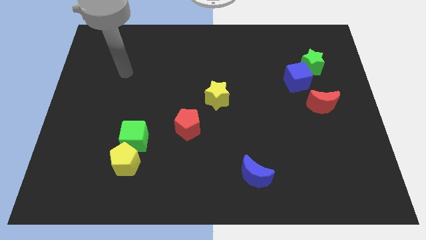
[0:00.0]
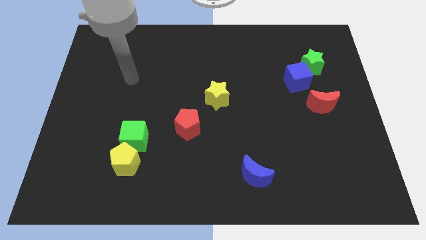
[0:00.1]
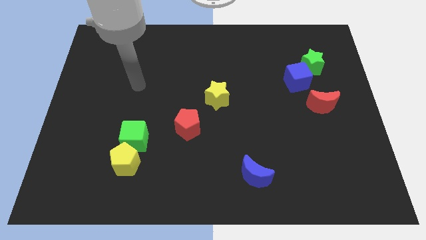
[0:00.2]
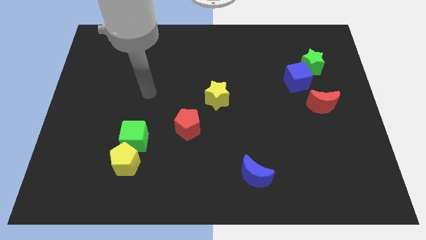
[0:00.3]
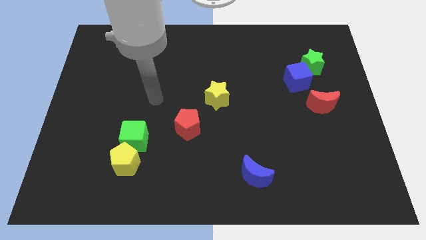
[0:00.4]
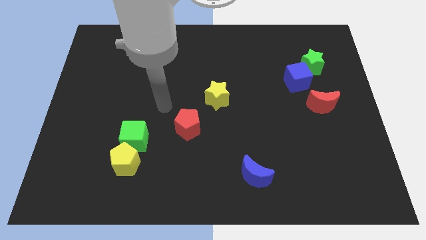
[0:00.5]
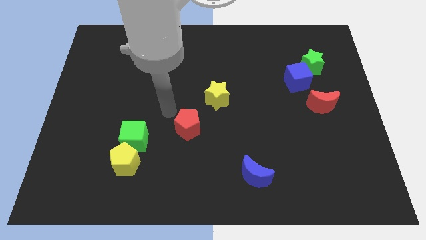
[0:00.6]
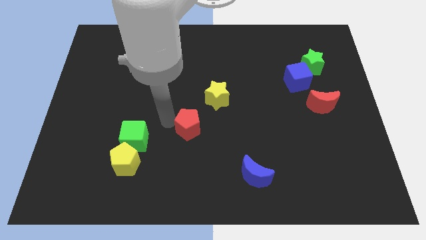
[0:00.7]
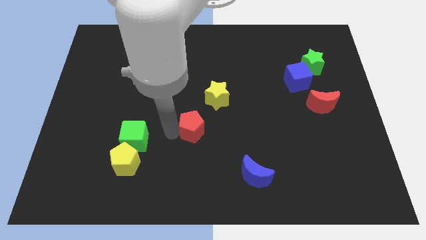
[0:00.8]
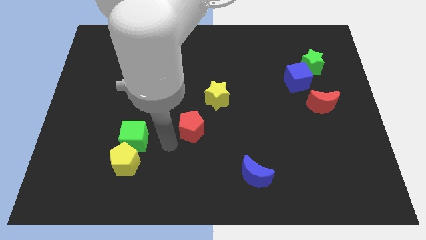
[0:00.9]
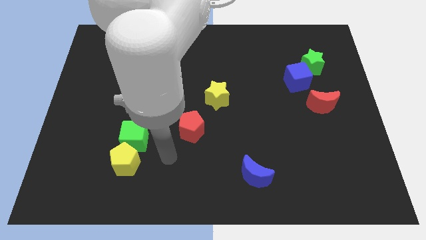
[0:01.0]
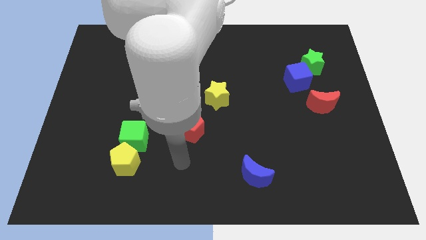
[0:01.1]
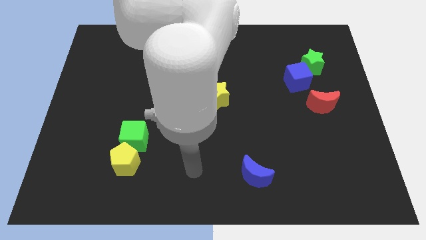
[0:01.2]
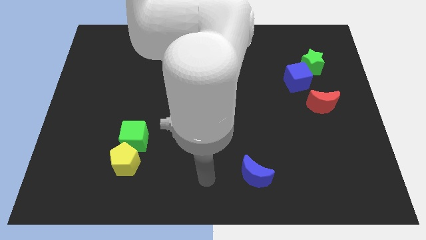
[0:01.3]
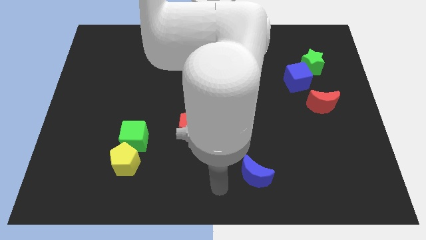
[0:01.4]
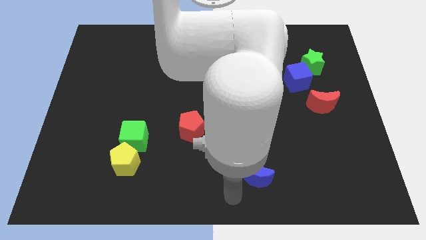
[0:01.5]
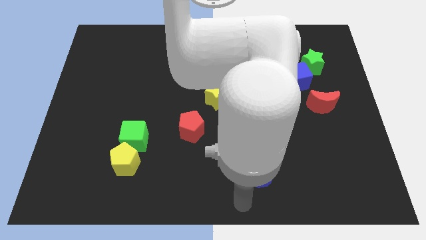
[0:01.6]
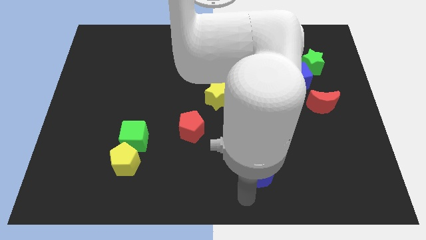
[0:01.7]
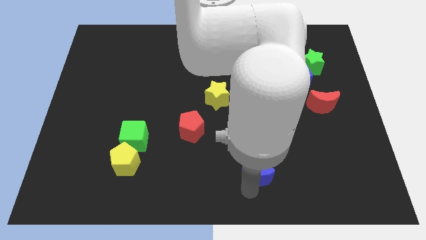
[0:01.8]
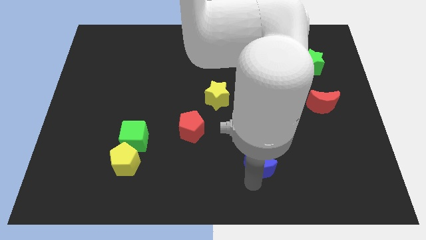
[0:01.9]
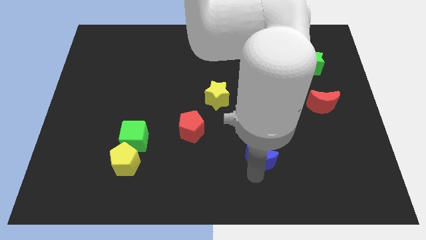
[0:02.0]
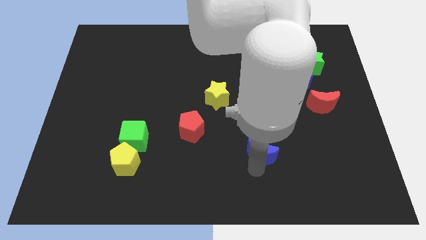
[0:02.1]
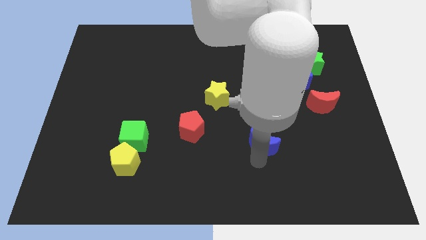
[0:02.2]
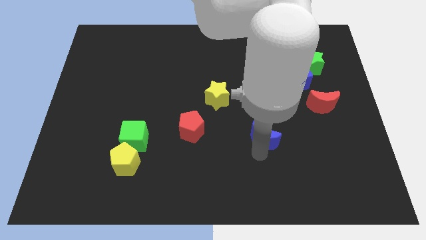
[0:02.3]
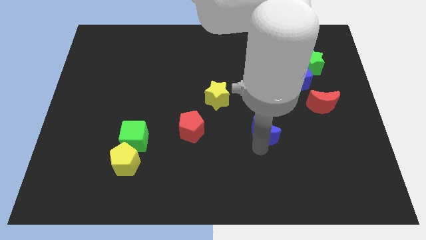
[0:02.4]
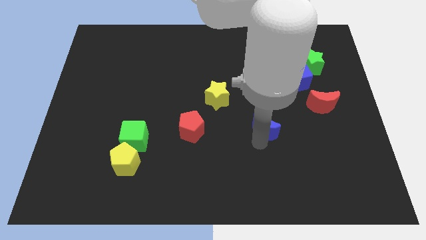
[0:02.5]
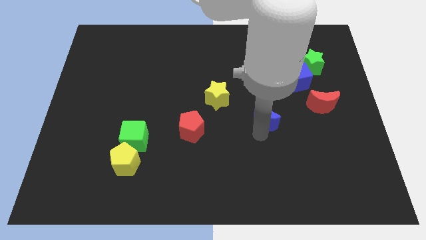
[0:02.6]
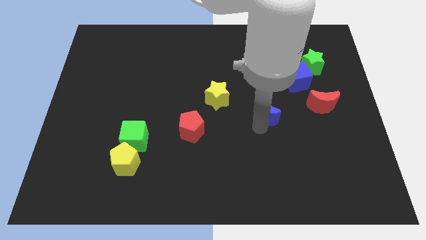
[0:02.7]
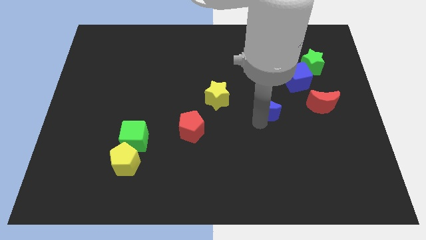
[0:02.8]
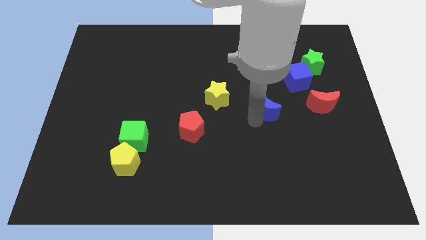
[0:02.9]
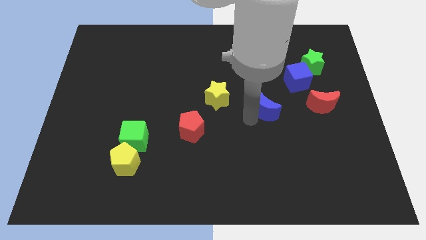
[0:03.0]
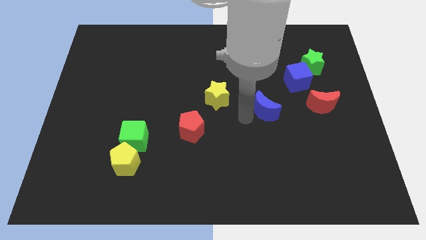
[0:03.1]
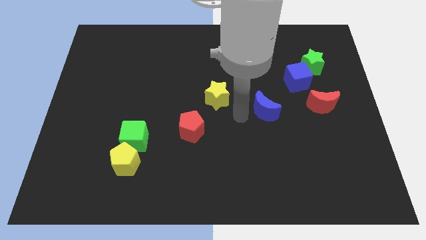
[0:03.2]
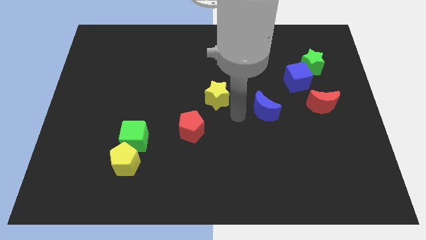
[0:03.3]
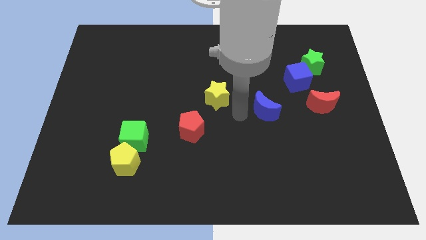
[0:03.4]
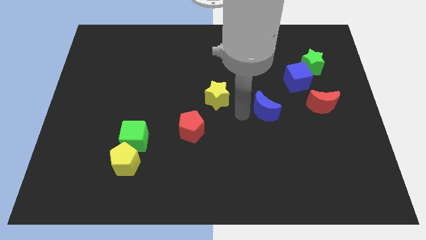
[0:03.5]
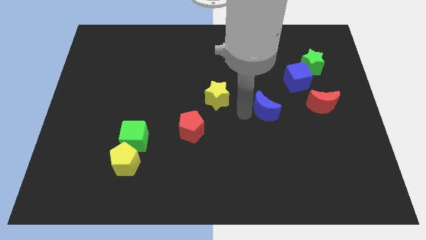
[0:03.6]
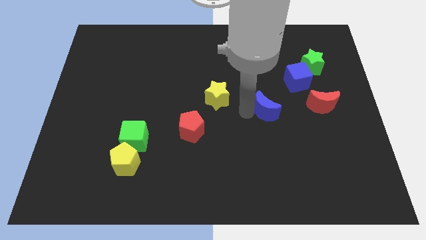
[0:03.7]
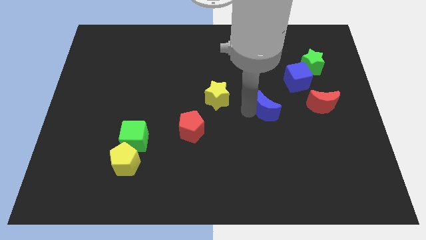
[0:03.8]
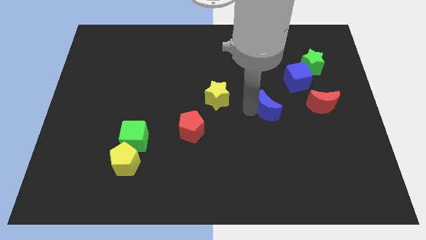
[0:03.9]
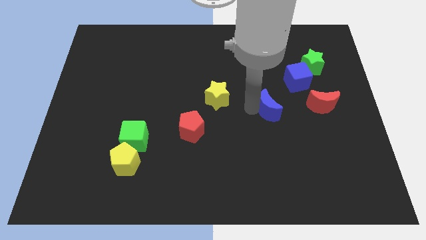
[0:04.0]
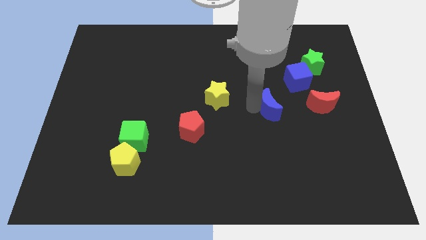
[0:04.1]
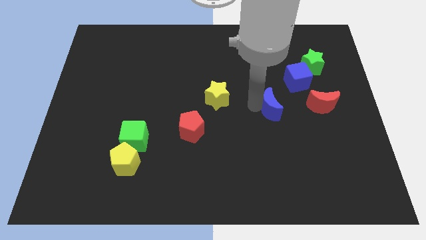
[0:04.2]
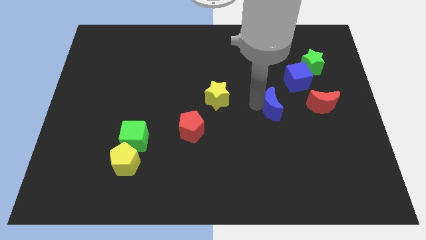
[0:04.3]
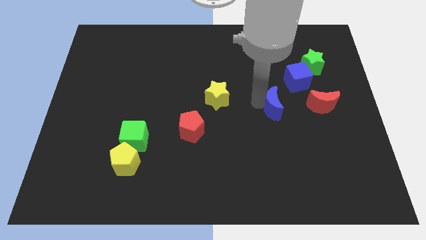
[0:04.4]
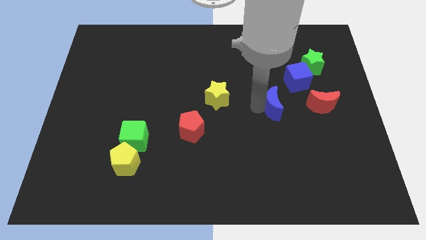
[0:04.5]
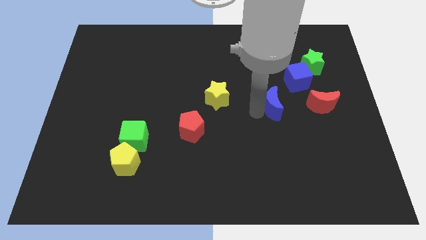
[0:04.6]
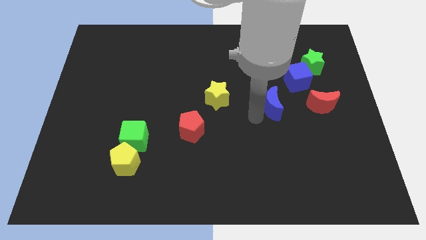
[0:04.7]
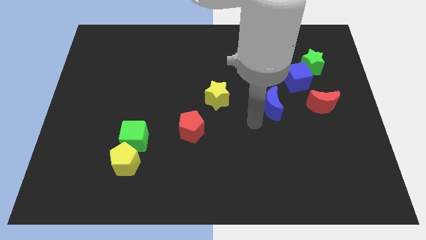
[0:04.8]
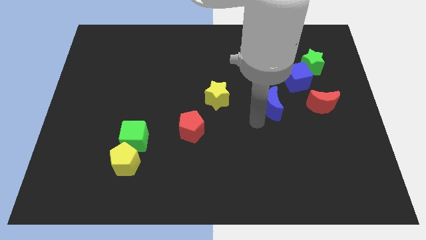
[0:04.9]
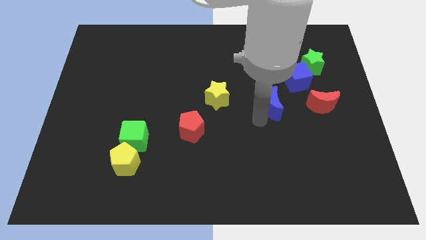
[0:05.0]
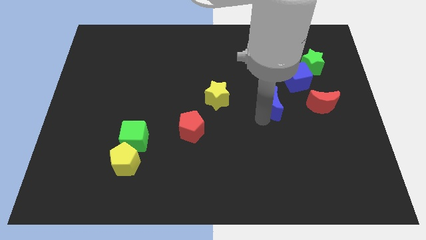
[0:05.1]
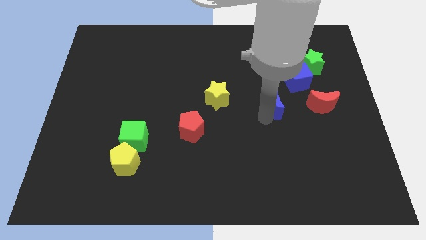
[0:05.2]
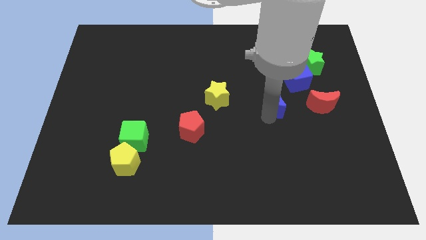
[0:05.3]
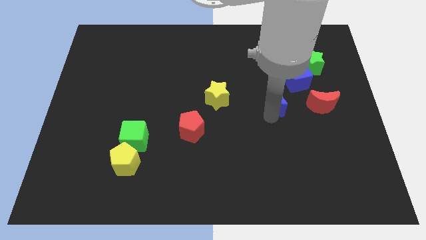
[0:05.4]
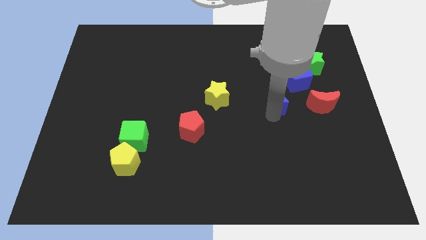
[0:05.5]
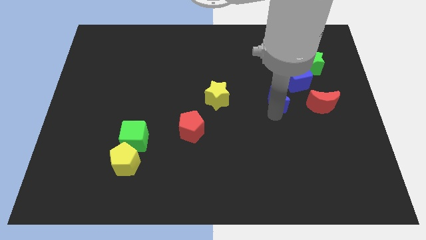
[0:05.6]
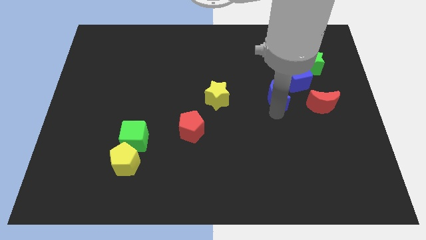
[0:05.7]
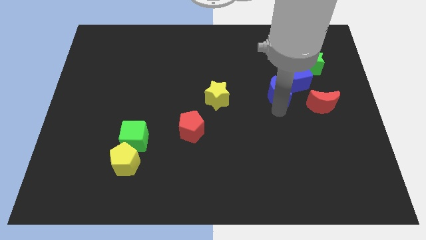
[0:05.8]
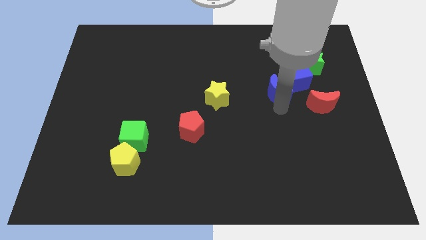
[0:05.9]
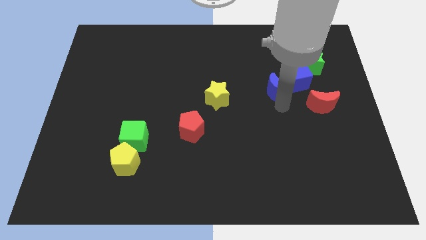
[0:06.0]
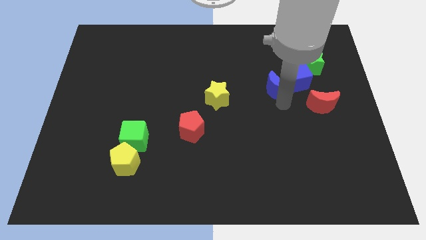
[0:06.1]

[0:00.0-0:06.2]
put the blue moon next to the blue cube

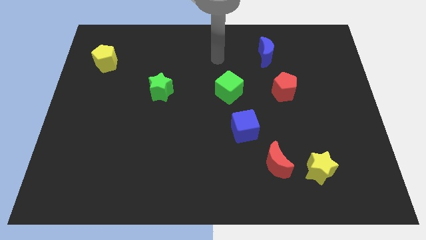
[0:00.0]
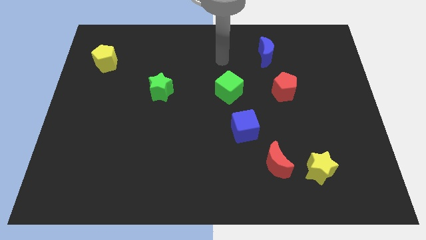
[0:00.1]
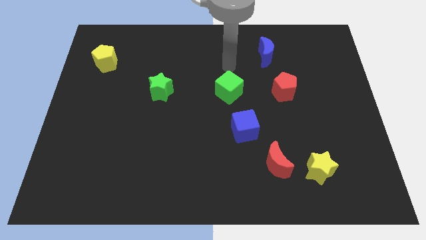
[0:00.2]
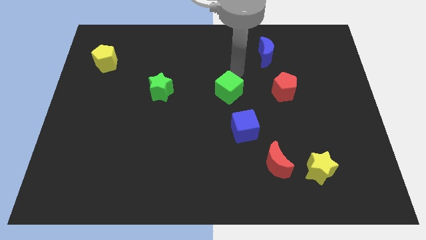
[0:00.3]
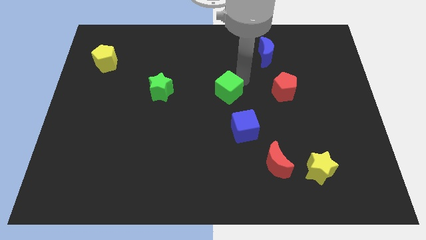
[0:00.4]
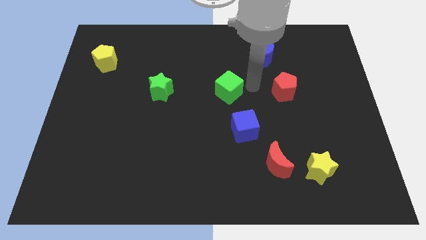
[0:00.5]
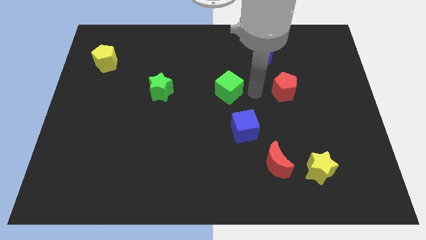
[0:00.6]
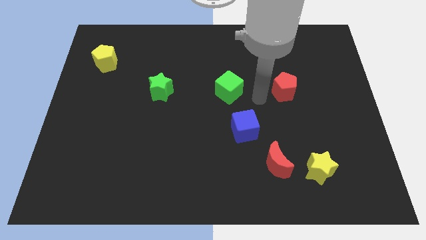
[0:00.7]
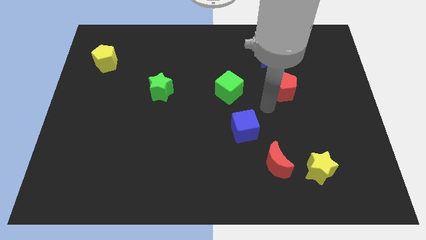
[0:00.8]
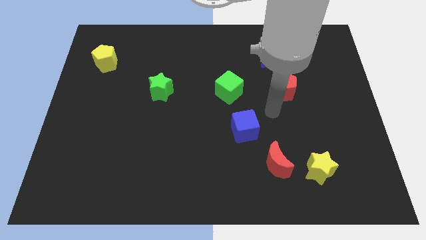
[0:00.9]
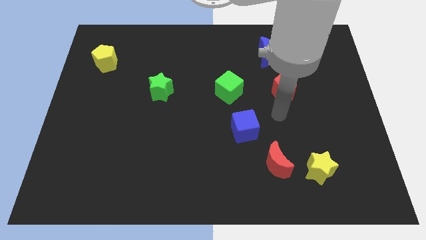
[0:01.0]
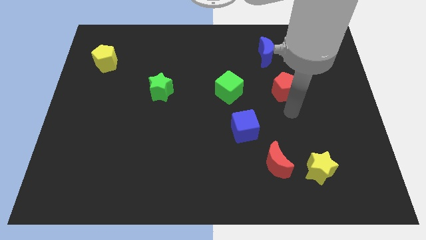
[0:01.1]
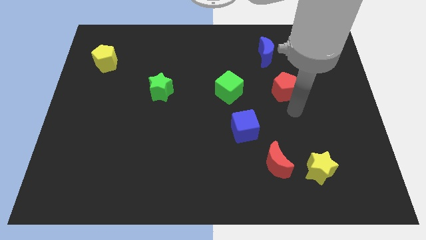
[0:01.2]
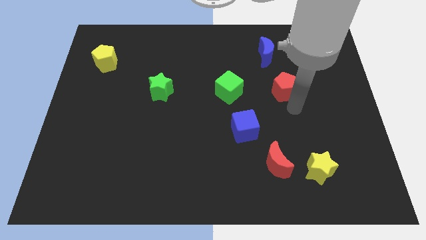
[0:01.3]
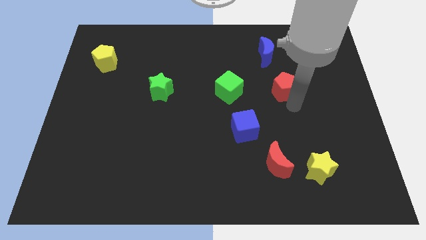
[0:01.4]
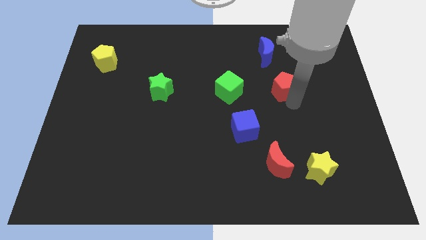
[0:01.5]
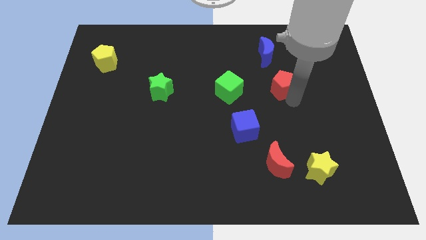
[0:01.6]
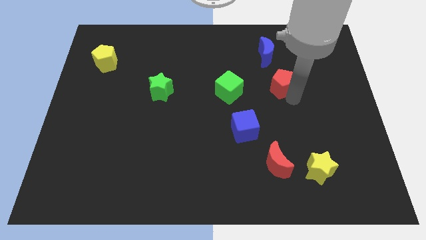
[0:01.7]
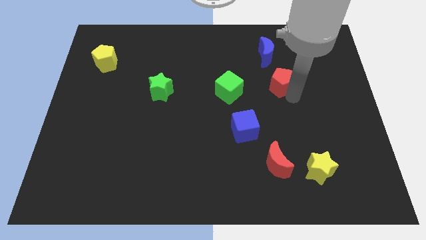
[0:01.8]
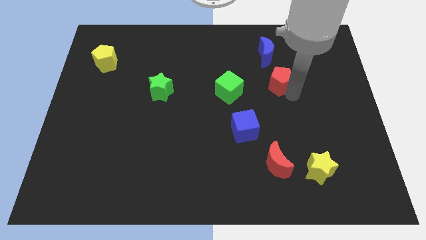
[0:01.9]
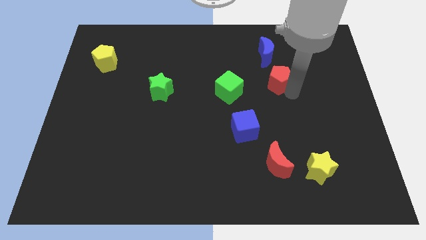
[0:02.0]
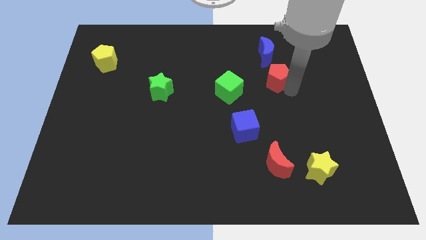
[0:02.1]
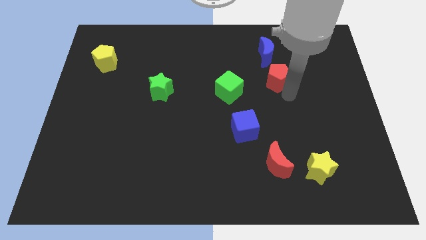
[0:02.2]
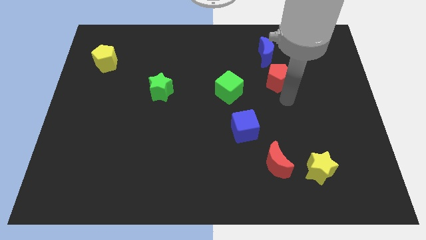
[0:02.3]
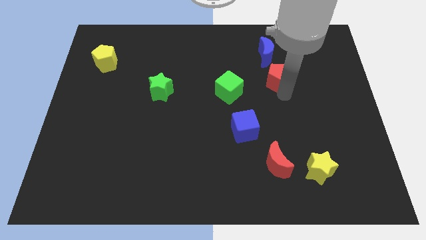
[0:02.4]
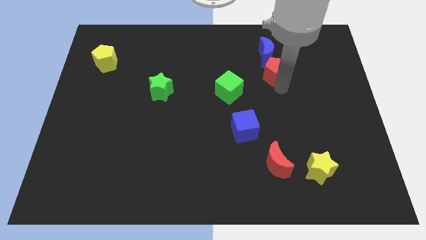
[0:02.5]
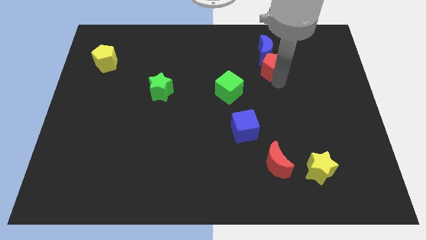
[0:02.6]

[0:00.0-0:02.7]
move the red pentagon towards the blue moon
